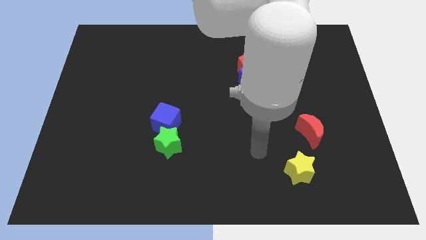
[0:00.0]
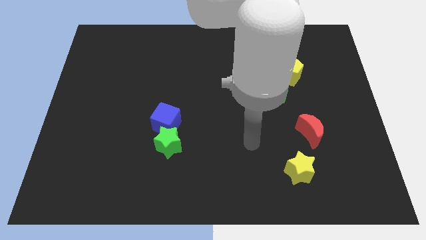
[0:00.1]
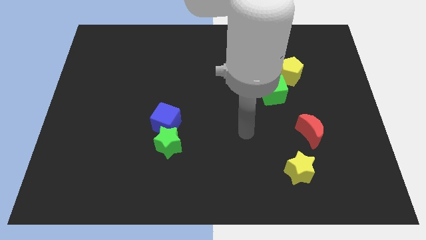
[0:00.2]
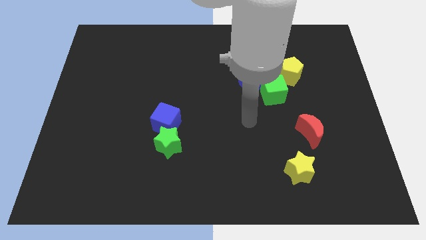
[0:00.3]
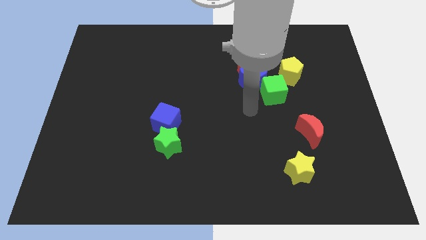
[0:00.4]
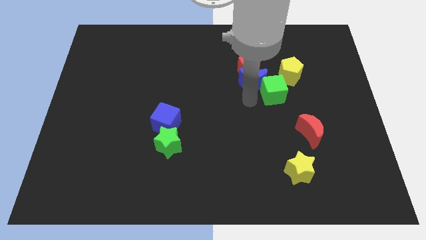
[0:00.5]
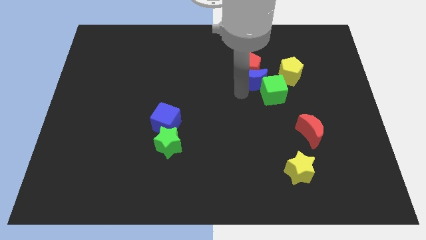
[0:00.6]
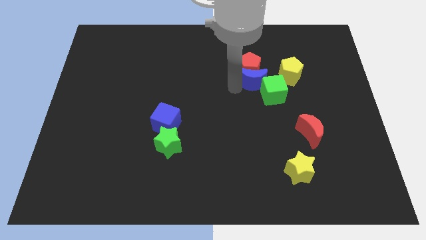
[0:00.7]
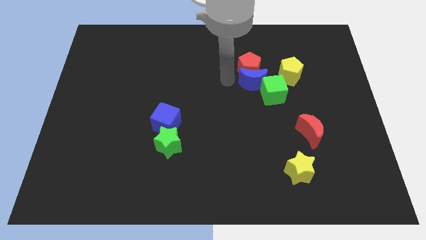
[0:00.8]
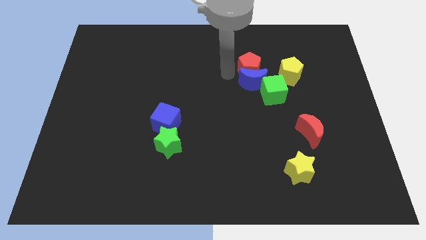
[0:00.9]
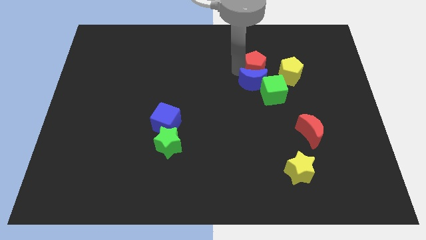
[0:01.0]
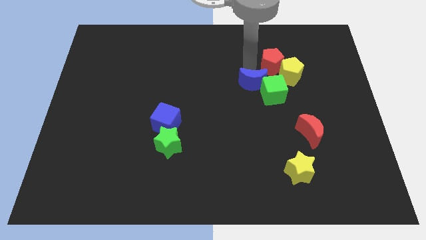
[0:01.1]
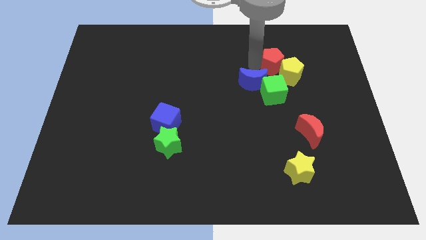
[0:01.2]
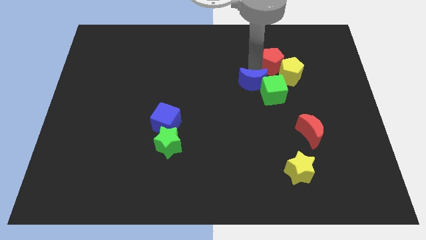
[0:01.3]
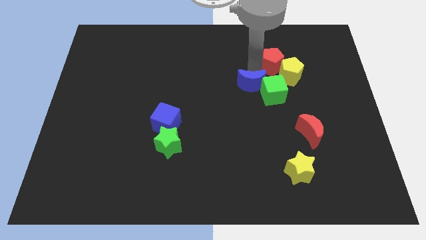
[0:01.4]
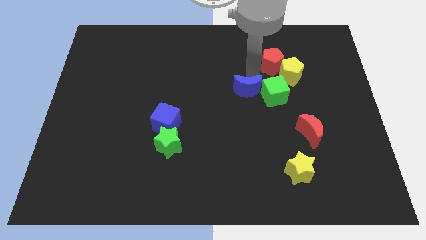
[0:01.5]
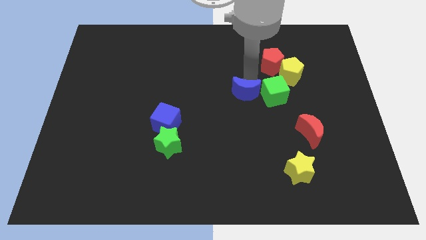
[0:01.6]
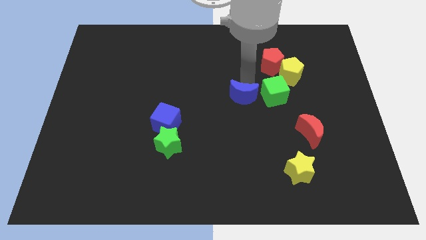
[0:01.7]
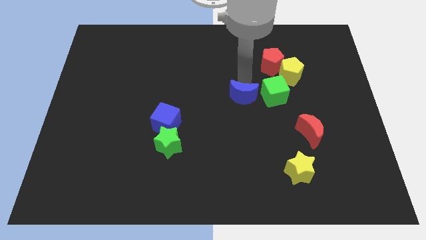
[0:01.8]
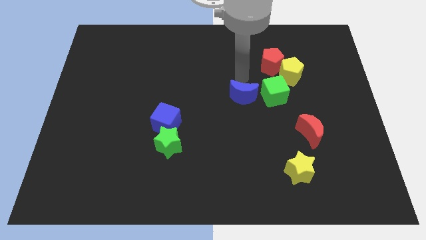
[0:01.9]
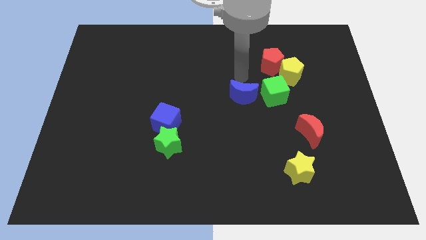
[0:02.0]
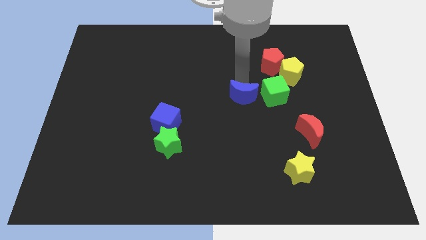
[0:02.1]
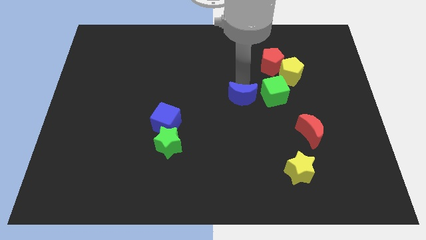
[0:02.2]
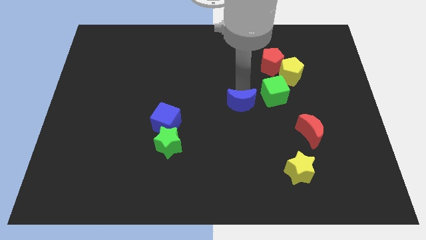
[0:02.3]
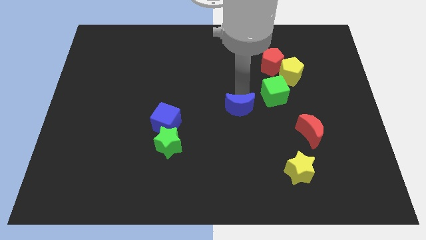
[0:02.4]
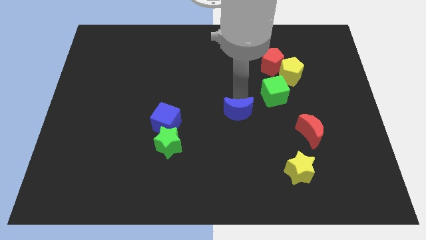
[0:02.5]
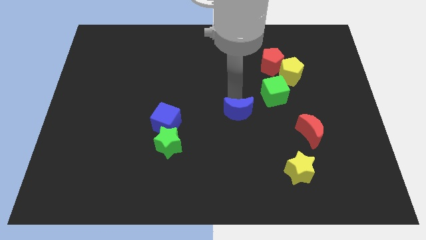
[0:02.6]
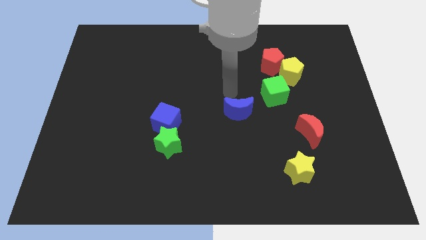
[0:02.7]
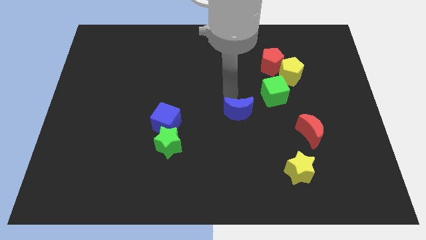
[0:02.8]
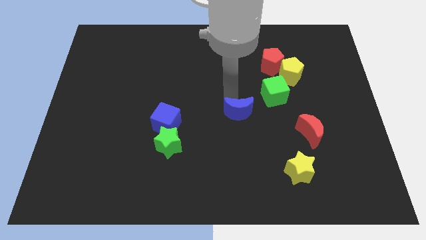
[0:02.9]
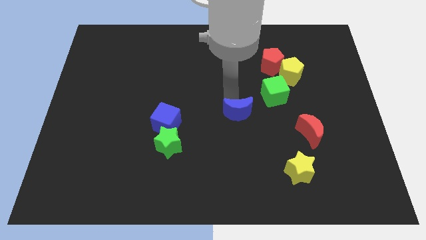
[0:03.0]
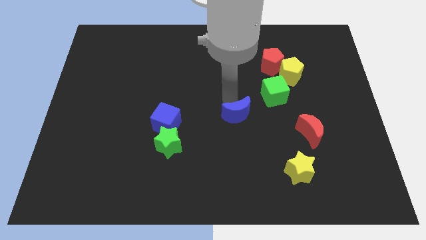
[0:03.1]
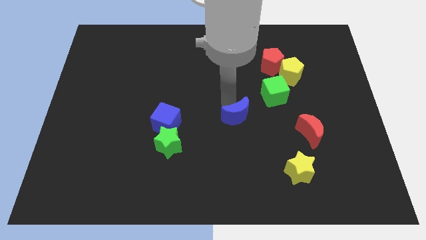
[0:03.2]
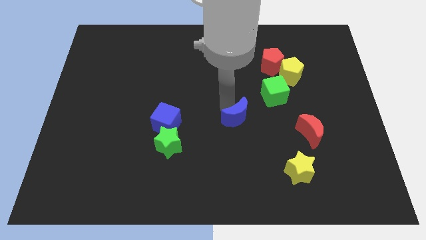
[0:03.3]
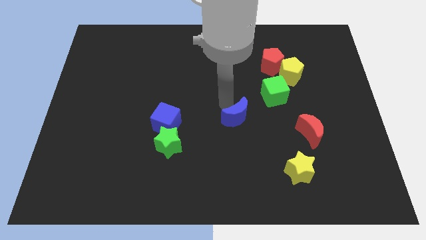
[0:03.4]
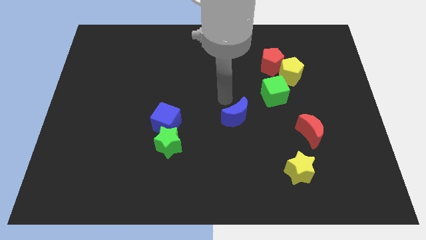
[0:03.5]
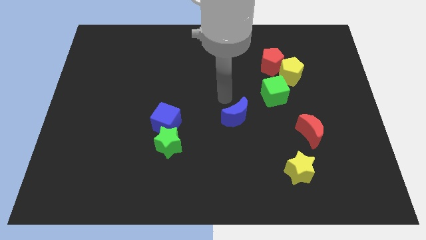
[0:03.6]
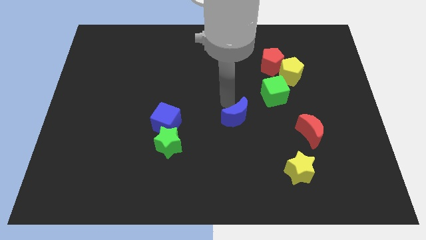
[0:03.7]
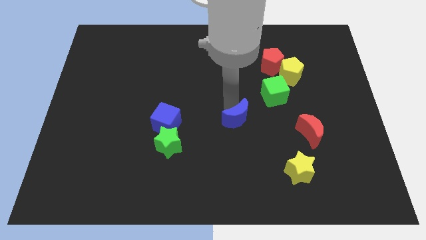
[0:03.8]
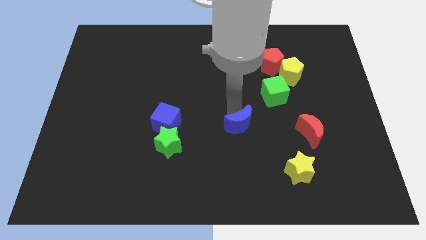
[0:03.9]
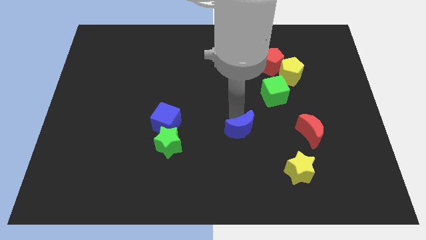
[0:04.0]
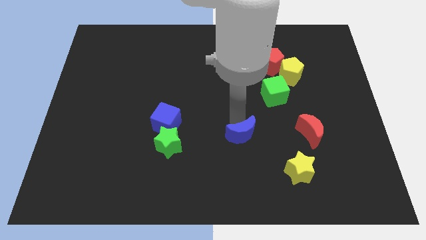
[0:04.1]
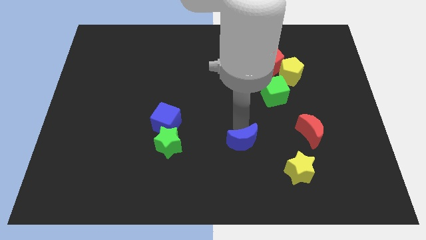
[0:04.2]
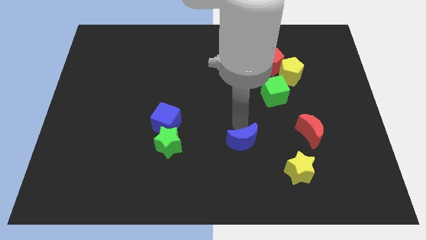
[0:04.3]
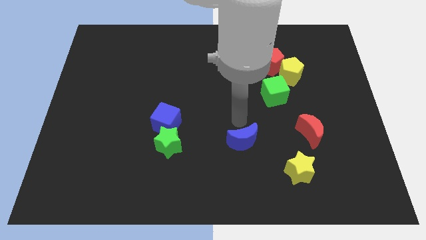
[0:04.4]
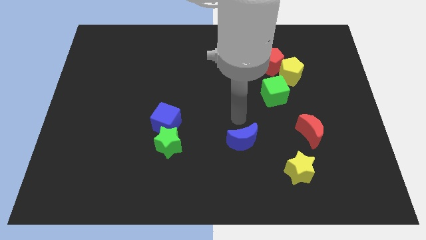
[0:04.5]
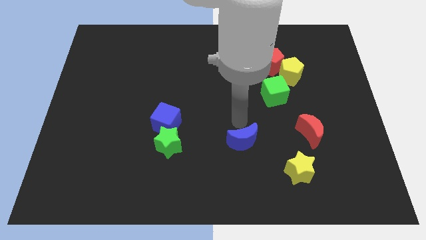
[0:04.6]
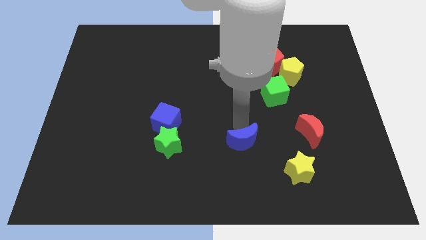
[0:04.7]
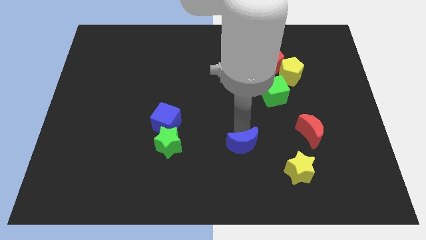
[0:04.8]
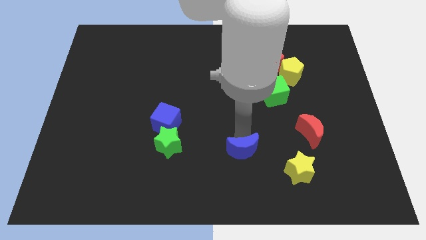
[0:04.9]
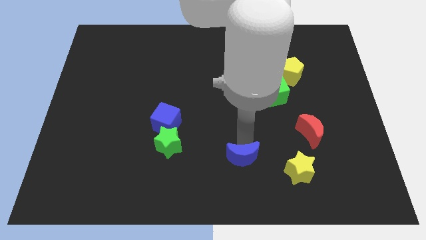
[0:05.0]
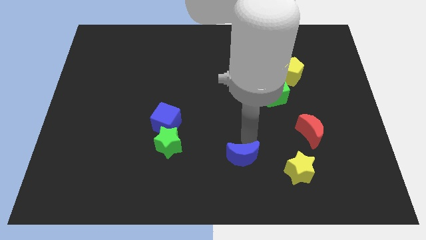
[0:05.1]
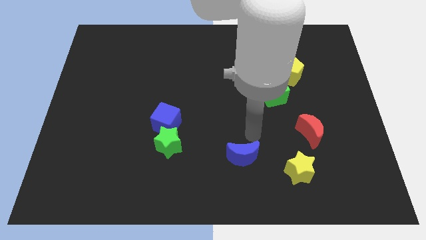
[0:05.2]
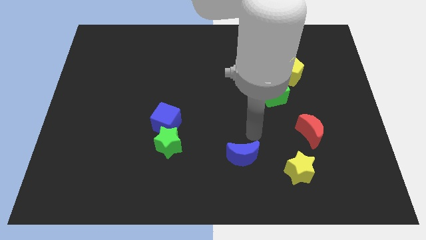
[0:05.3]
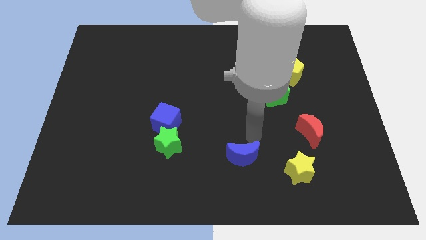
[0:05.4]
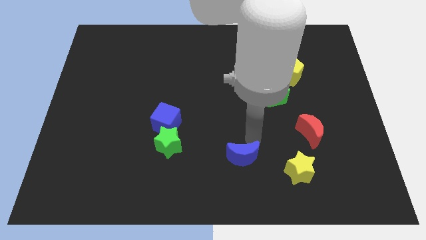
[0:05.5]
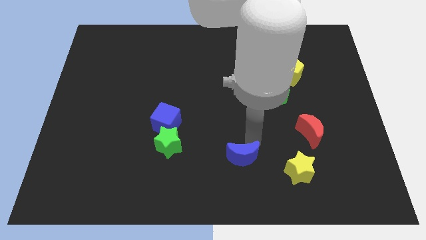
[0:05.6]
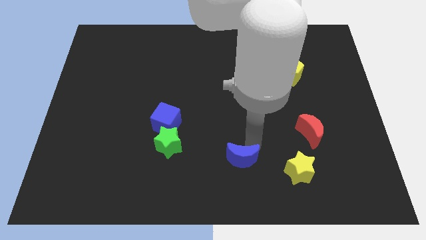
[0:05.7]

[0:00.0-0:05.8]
move the blue moon to the bottom side

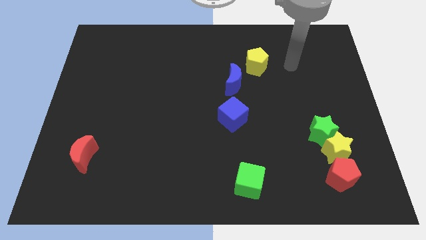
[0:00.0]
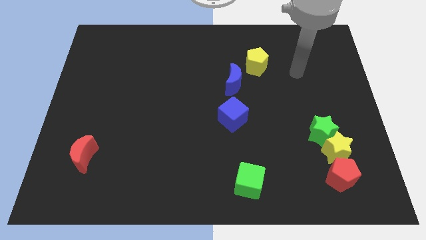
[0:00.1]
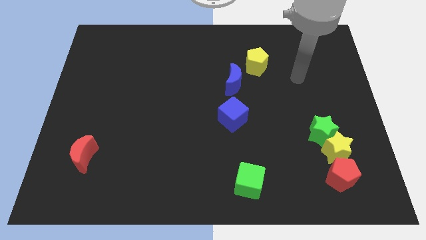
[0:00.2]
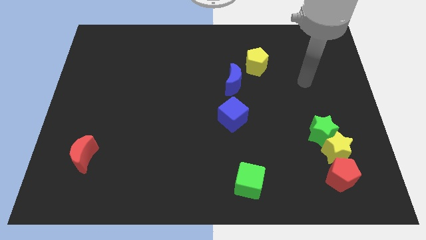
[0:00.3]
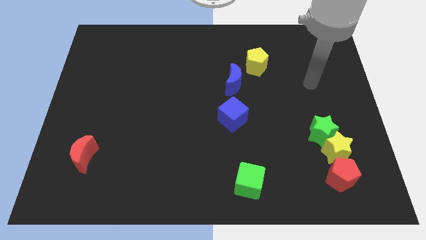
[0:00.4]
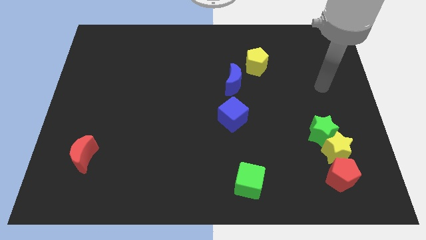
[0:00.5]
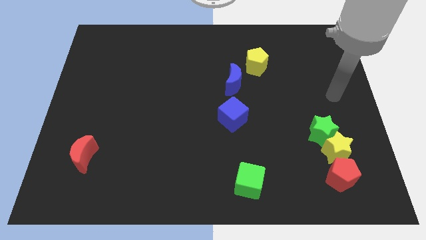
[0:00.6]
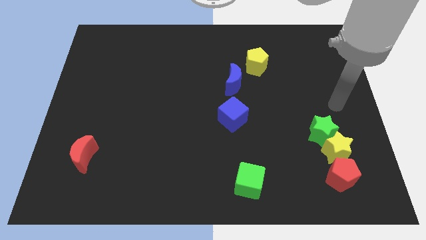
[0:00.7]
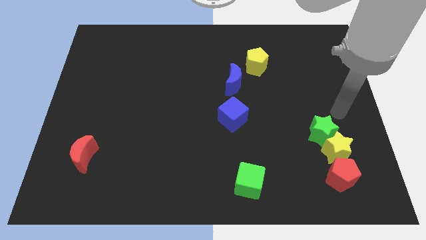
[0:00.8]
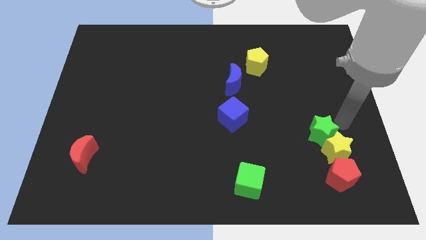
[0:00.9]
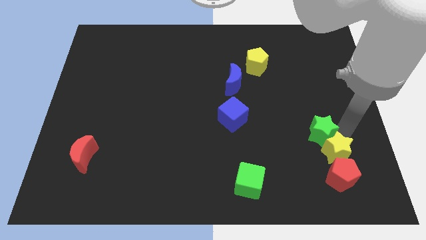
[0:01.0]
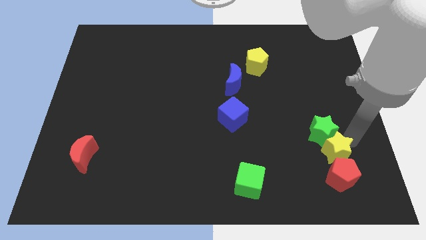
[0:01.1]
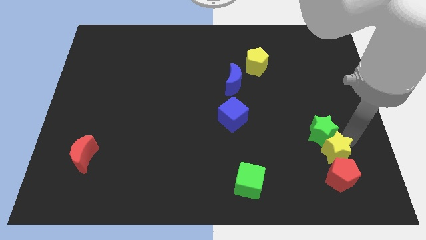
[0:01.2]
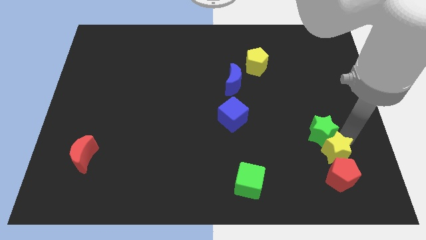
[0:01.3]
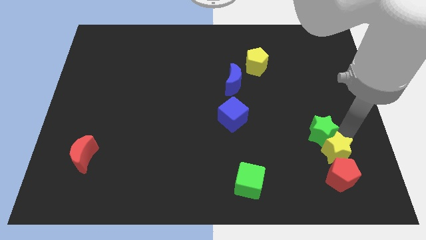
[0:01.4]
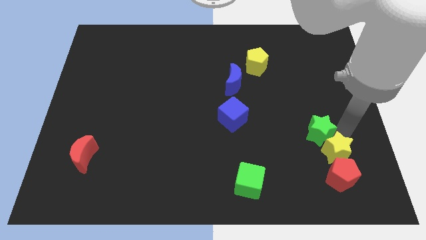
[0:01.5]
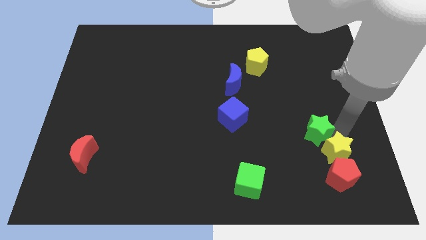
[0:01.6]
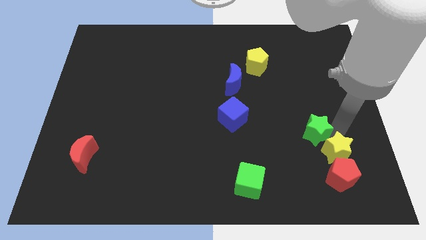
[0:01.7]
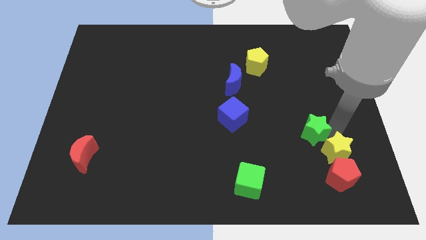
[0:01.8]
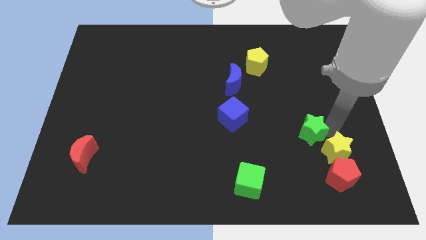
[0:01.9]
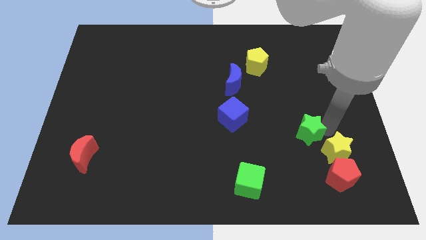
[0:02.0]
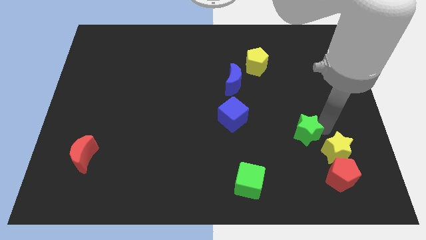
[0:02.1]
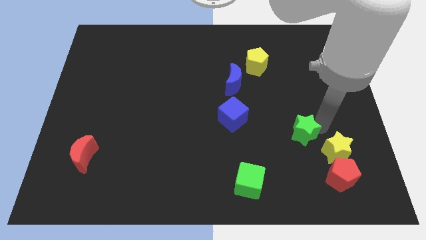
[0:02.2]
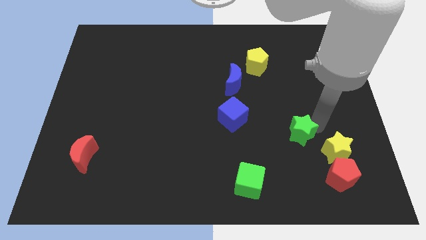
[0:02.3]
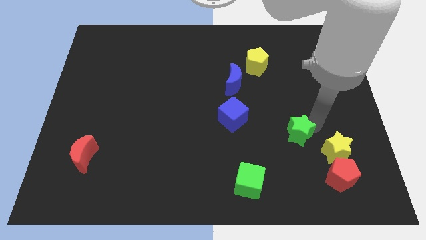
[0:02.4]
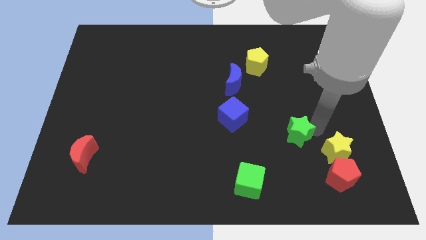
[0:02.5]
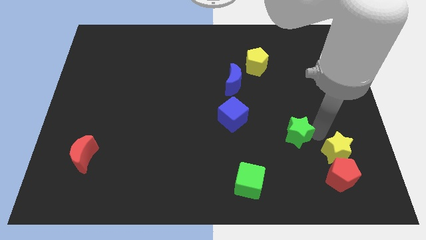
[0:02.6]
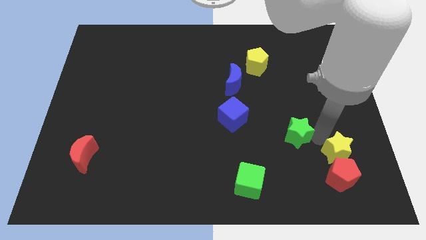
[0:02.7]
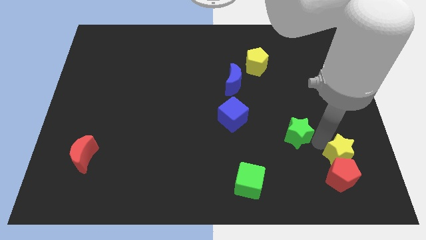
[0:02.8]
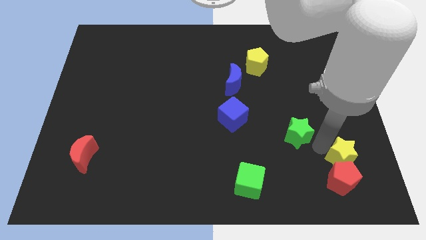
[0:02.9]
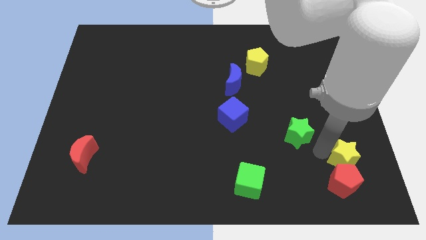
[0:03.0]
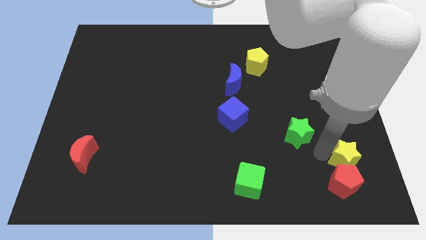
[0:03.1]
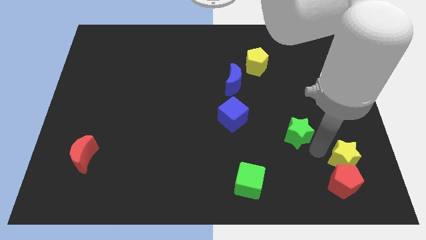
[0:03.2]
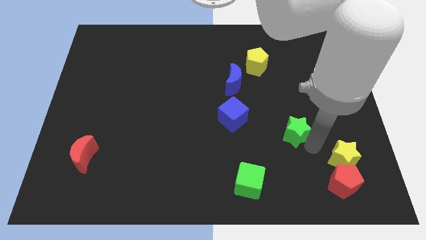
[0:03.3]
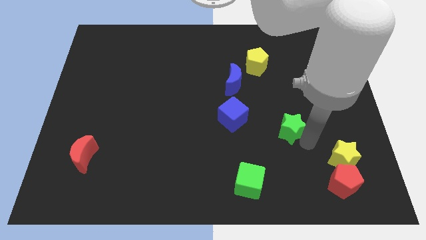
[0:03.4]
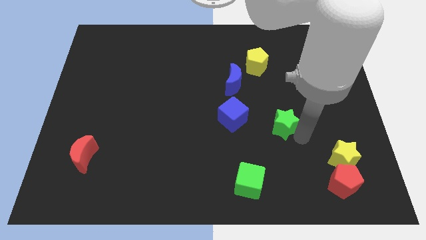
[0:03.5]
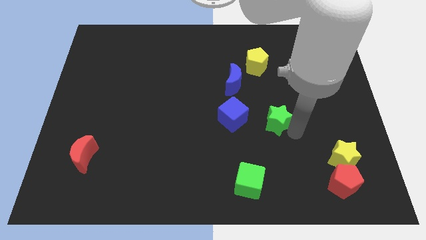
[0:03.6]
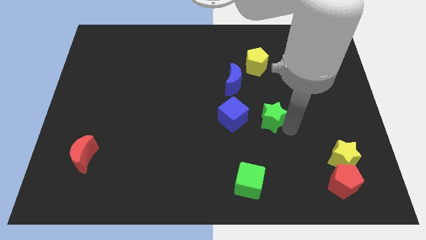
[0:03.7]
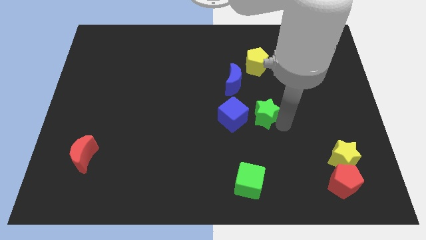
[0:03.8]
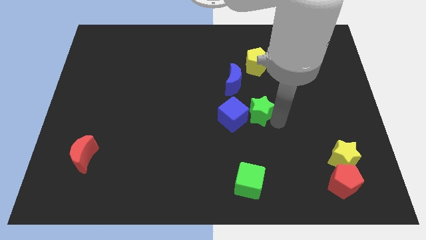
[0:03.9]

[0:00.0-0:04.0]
put the green star to the middle of the board
